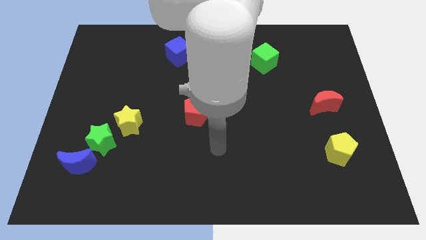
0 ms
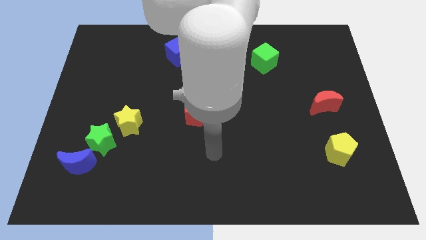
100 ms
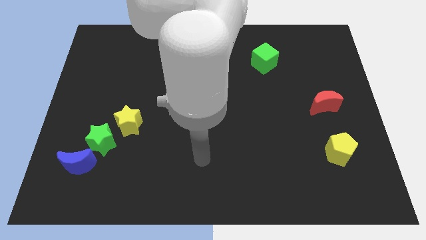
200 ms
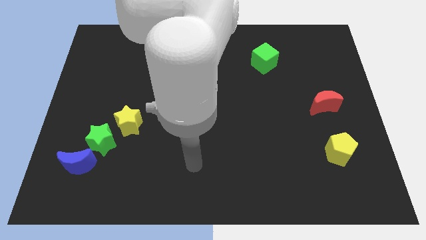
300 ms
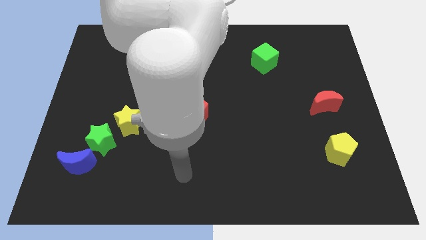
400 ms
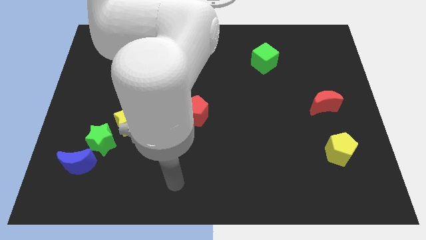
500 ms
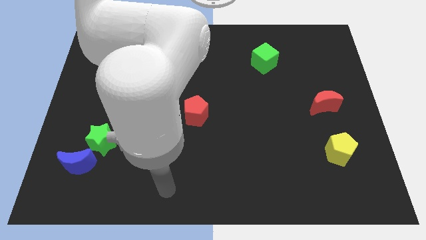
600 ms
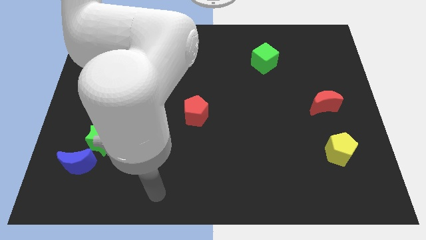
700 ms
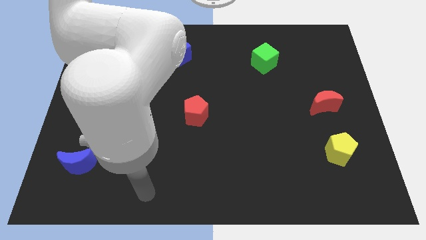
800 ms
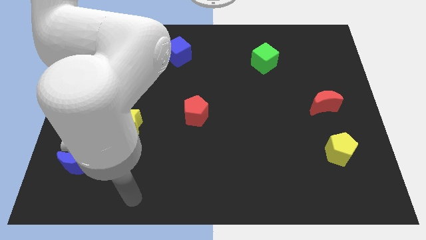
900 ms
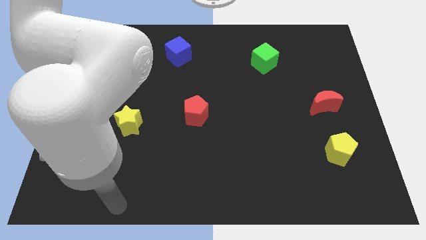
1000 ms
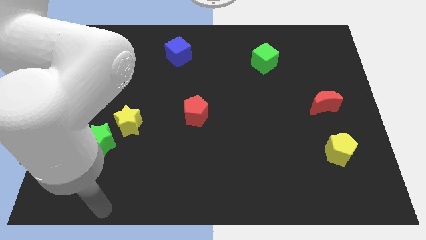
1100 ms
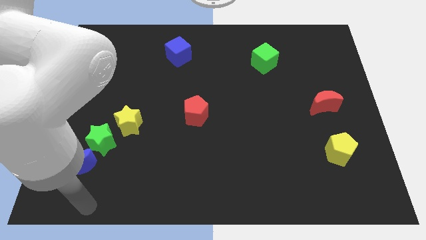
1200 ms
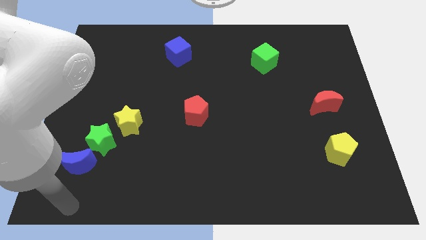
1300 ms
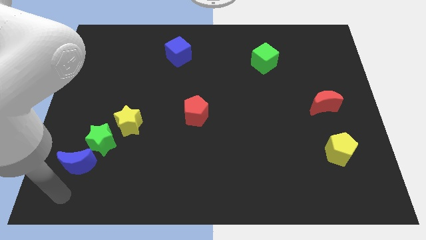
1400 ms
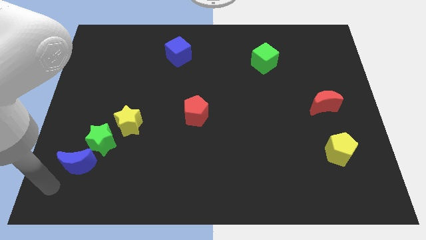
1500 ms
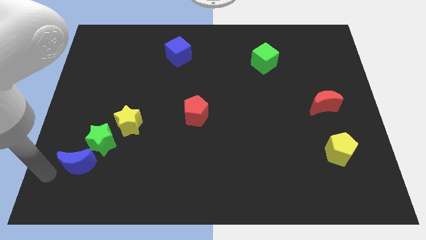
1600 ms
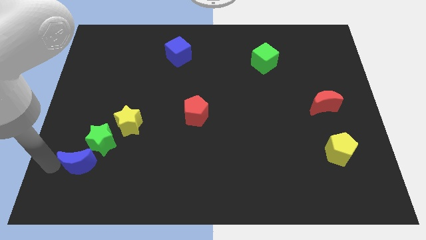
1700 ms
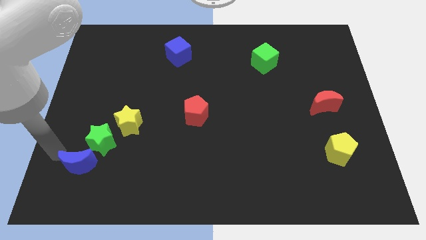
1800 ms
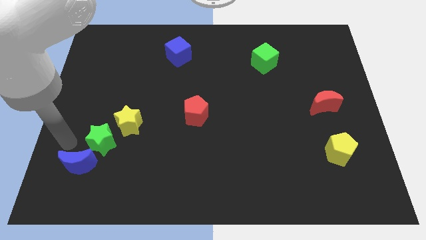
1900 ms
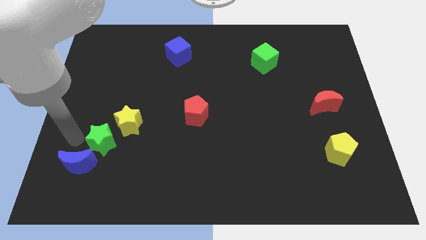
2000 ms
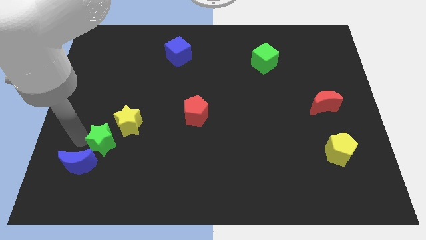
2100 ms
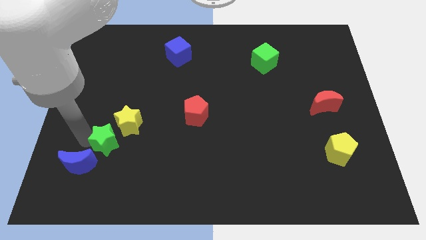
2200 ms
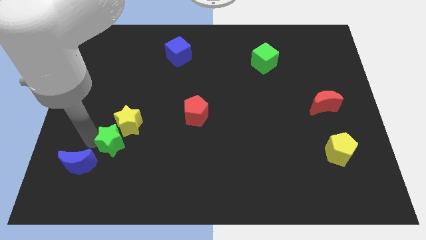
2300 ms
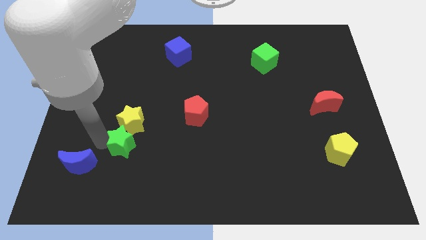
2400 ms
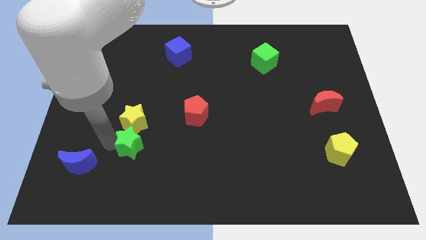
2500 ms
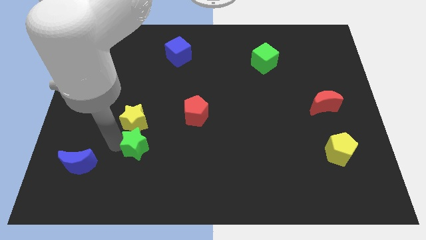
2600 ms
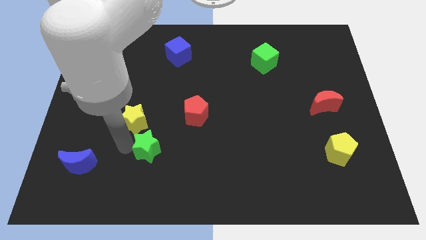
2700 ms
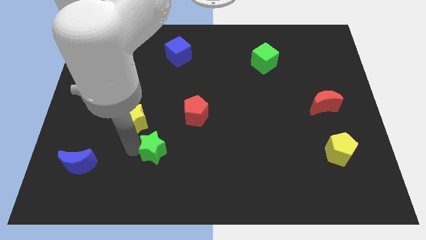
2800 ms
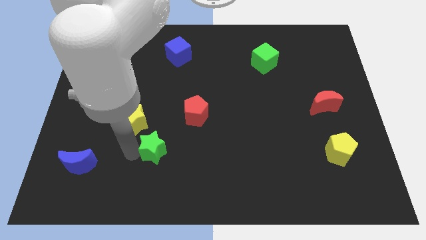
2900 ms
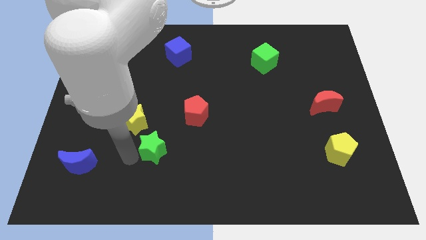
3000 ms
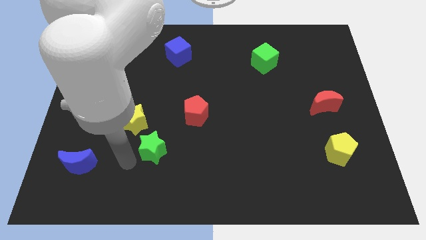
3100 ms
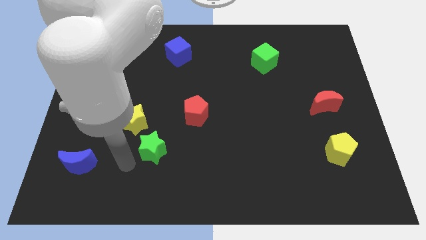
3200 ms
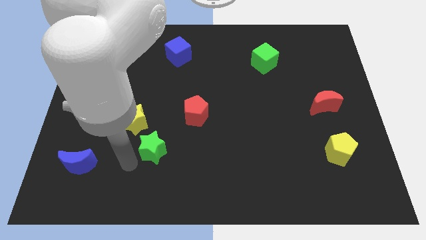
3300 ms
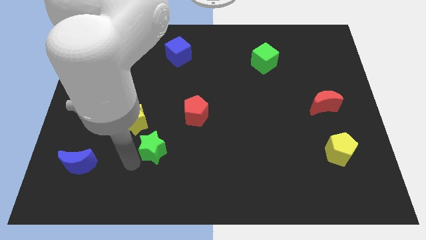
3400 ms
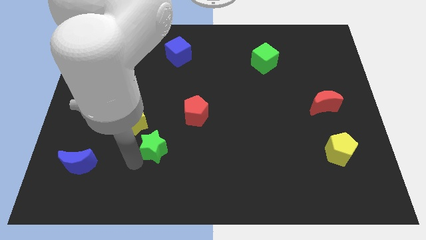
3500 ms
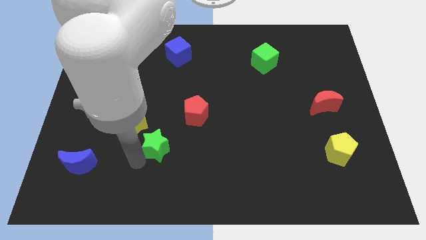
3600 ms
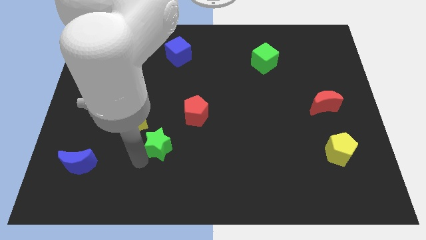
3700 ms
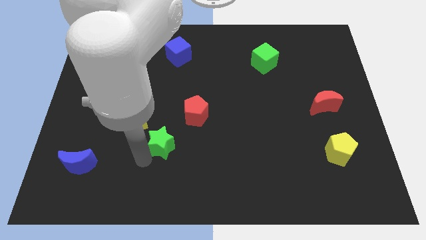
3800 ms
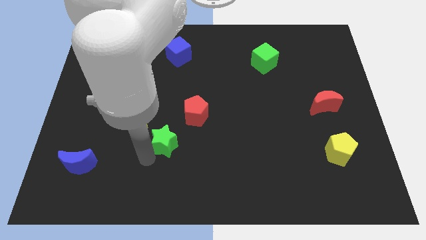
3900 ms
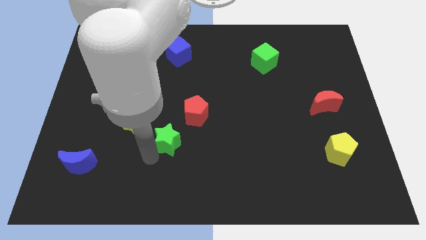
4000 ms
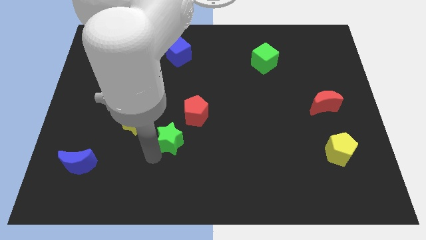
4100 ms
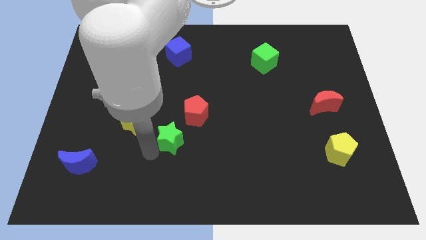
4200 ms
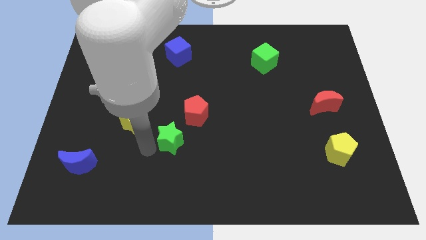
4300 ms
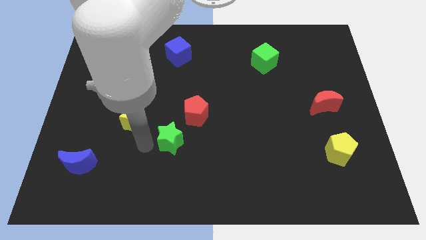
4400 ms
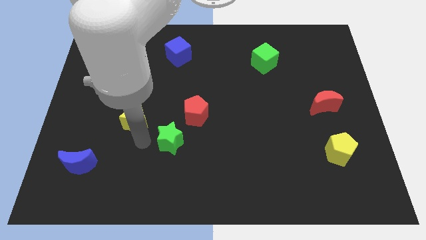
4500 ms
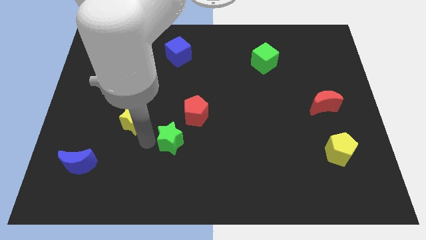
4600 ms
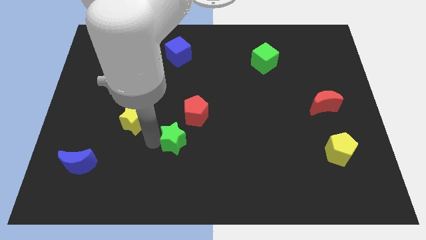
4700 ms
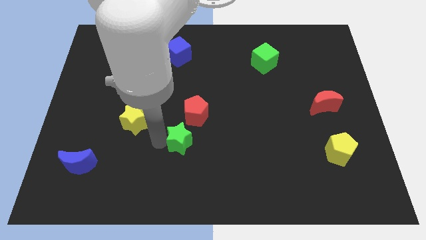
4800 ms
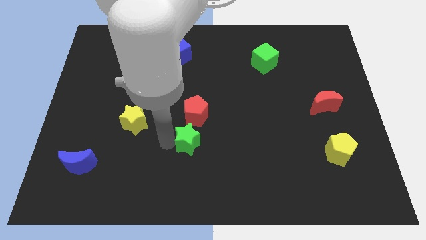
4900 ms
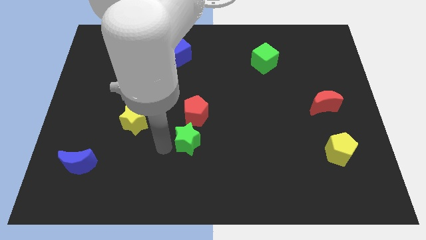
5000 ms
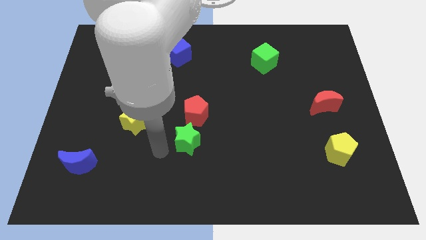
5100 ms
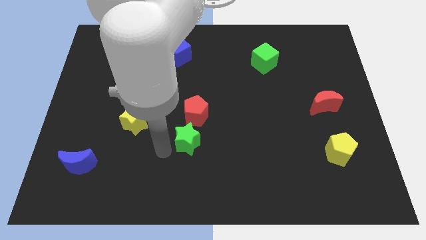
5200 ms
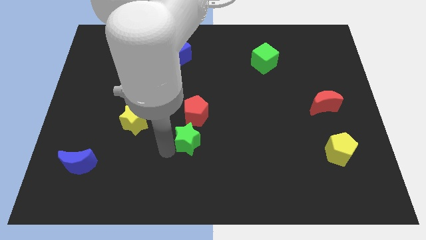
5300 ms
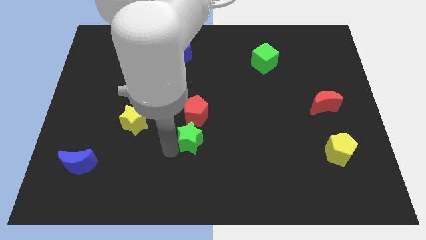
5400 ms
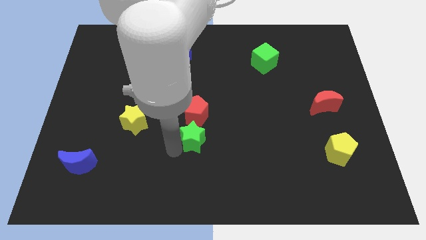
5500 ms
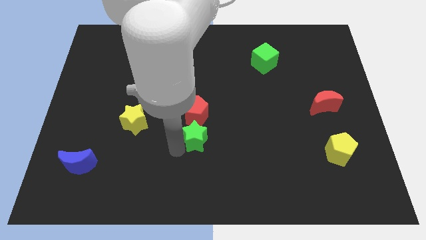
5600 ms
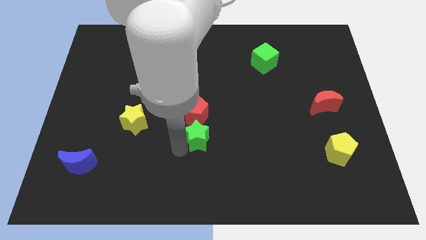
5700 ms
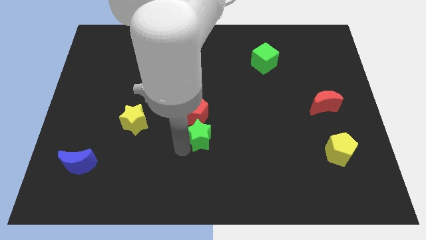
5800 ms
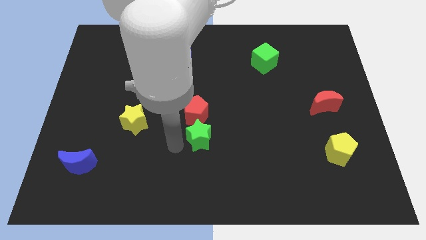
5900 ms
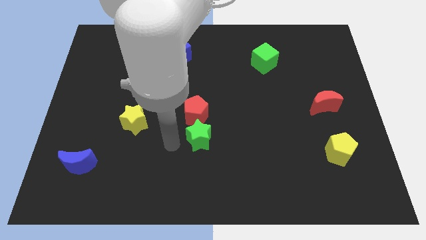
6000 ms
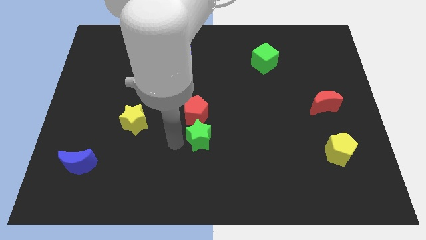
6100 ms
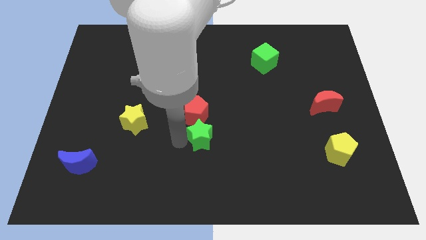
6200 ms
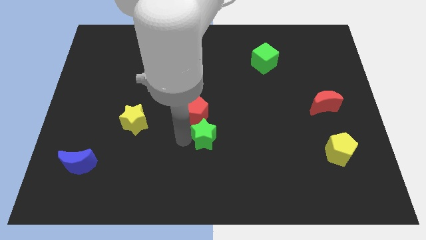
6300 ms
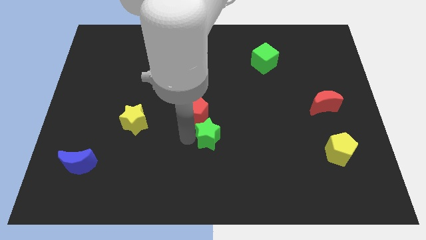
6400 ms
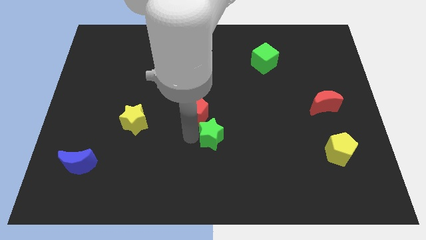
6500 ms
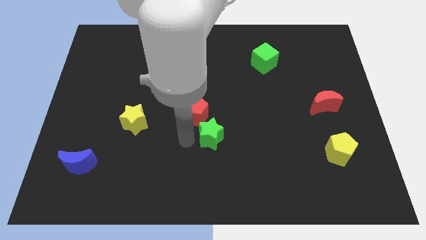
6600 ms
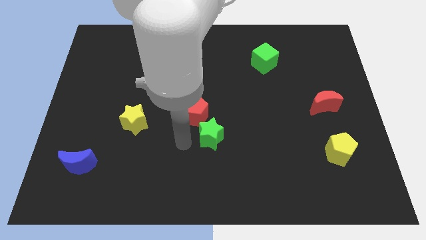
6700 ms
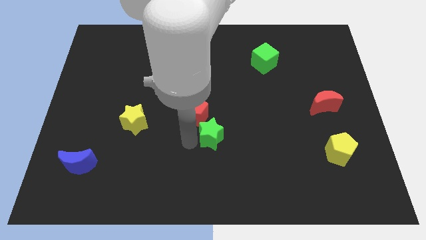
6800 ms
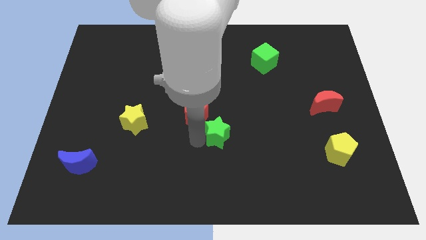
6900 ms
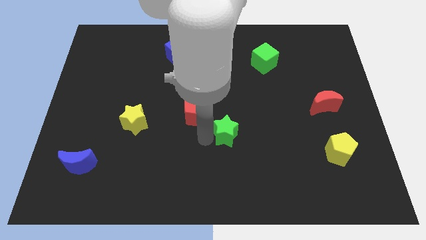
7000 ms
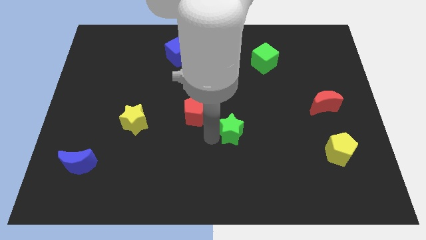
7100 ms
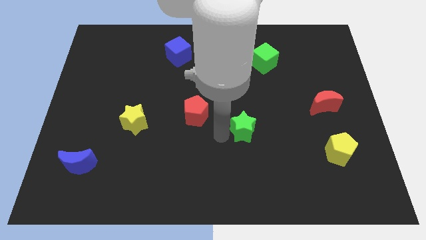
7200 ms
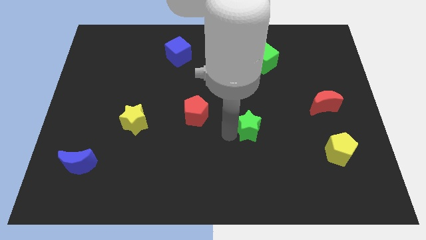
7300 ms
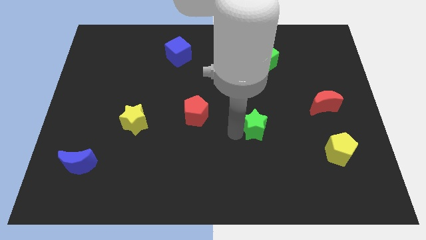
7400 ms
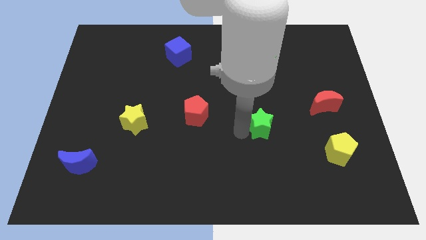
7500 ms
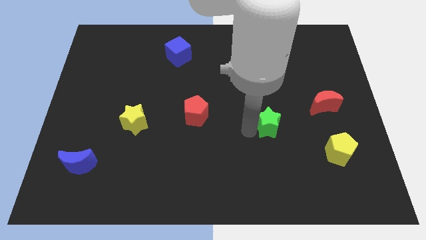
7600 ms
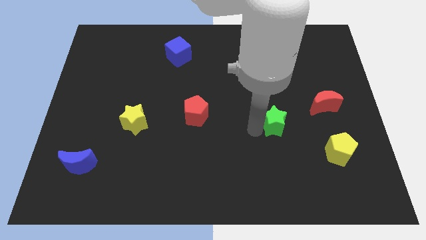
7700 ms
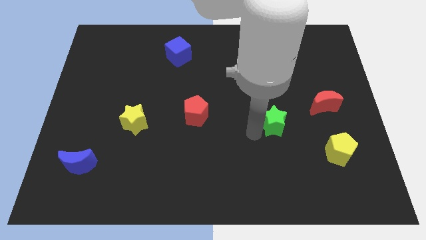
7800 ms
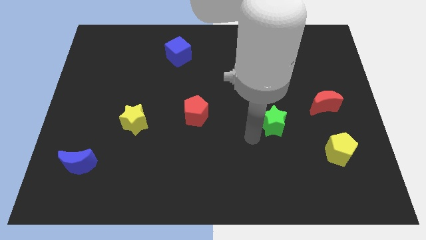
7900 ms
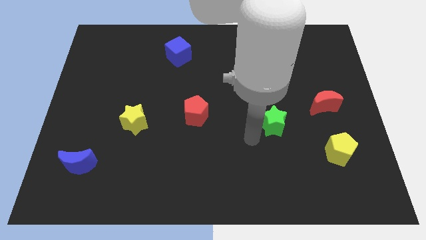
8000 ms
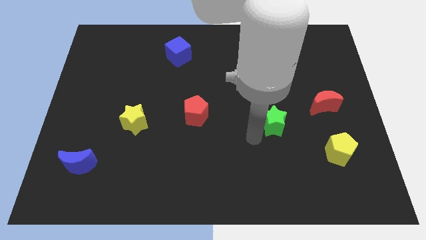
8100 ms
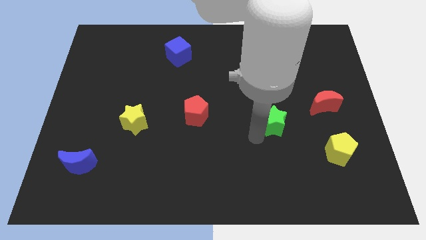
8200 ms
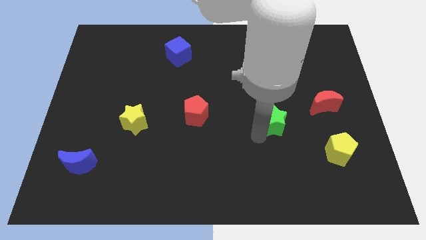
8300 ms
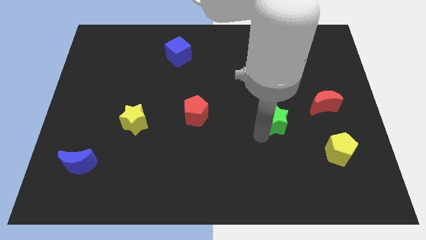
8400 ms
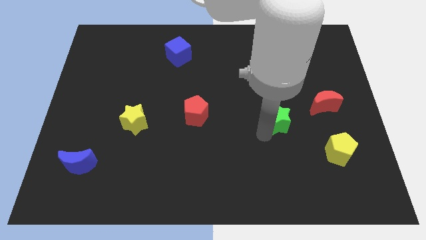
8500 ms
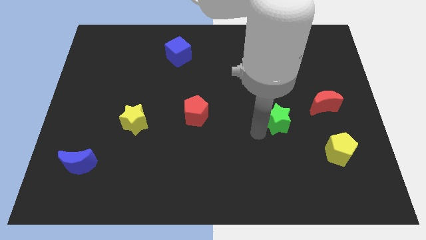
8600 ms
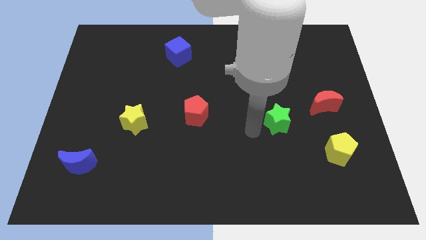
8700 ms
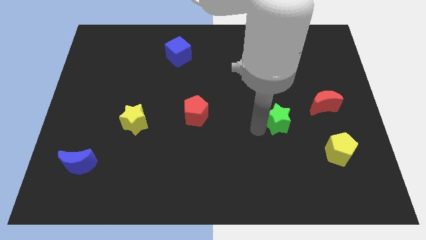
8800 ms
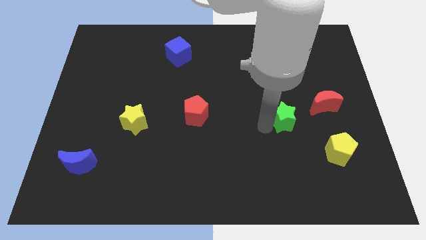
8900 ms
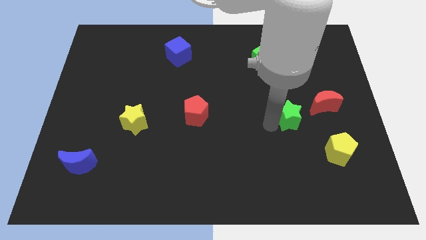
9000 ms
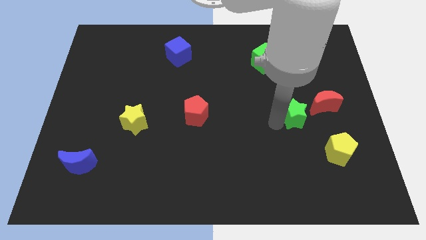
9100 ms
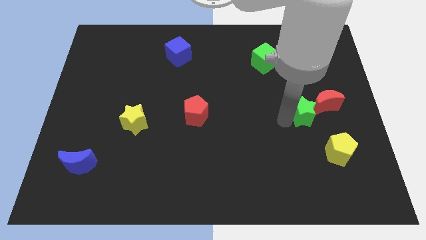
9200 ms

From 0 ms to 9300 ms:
slide the green star next to the red moon
